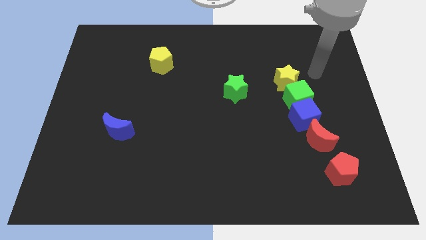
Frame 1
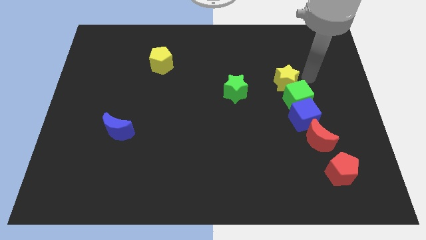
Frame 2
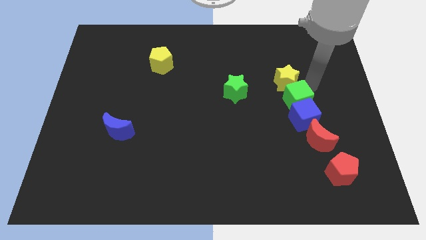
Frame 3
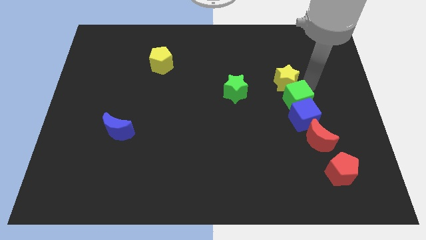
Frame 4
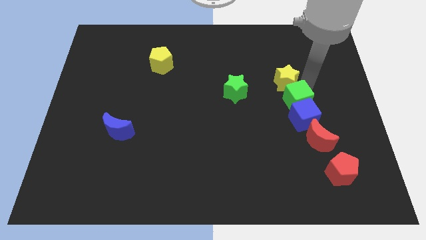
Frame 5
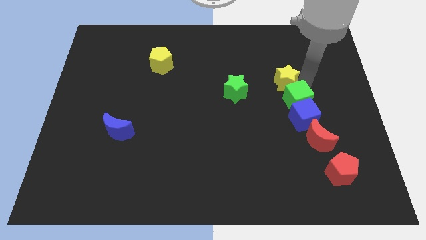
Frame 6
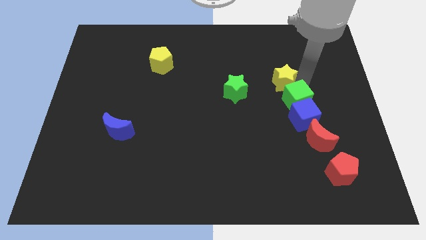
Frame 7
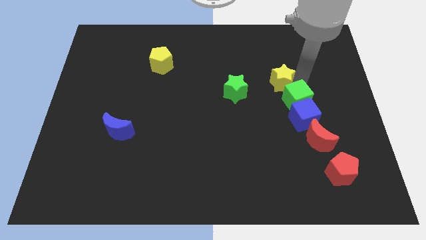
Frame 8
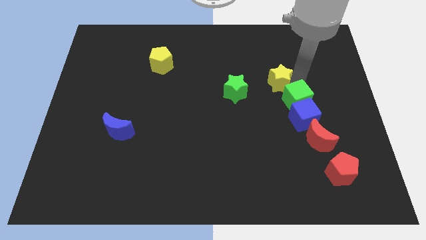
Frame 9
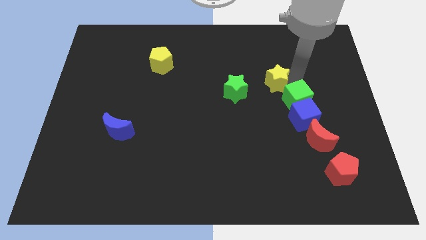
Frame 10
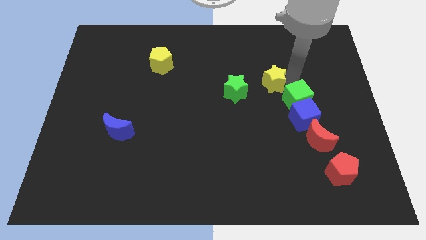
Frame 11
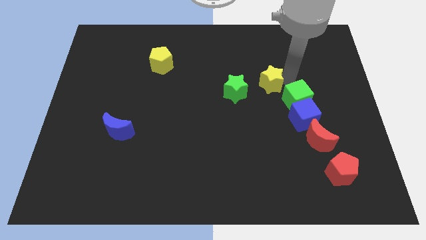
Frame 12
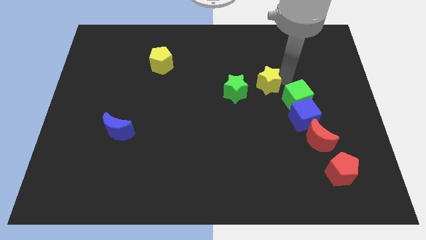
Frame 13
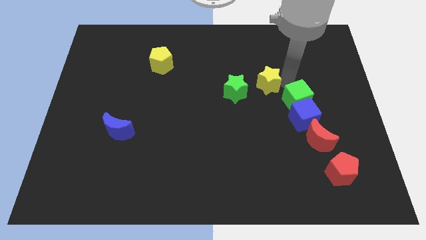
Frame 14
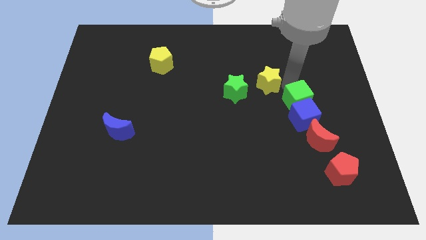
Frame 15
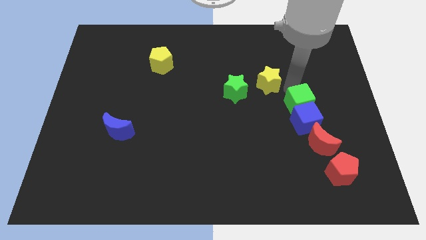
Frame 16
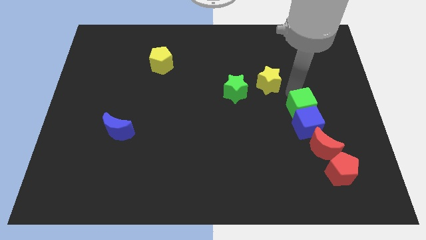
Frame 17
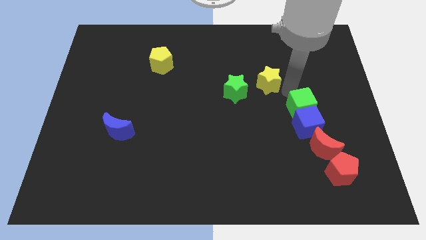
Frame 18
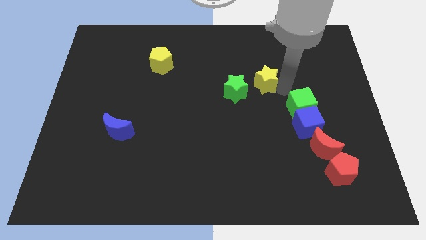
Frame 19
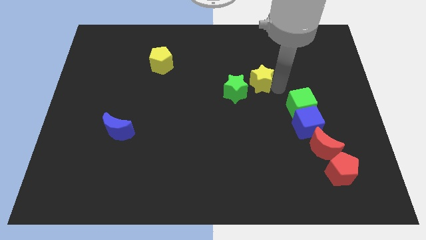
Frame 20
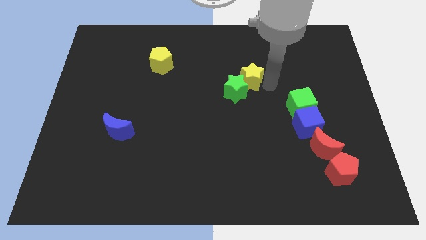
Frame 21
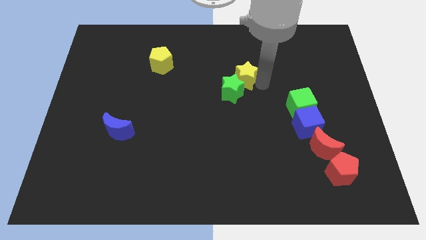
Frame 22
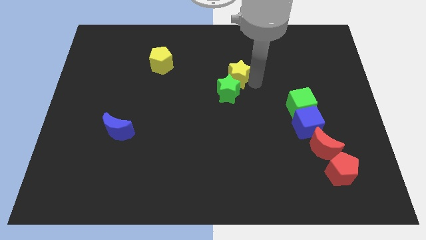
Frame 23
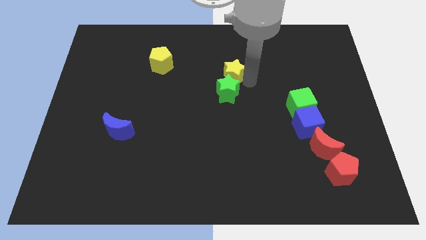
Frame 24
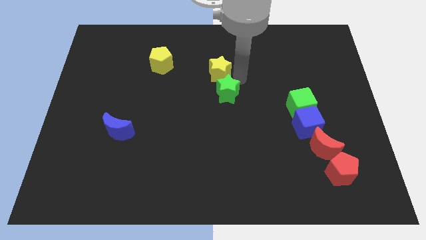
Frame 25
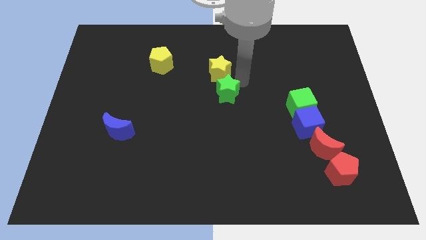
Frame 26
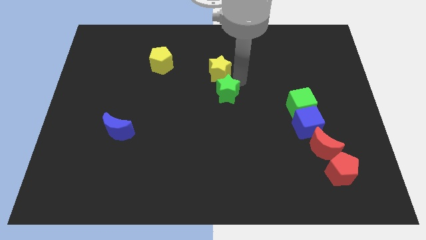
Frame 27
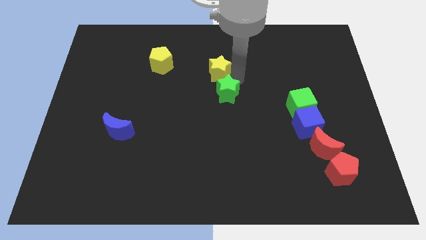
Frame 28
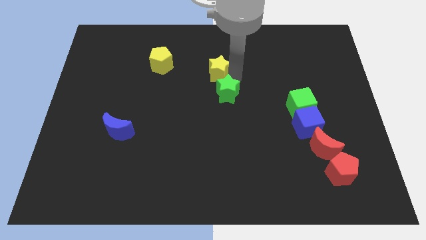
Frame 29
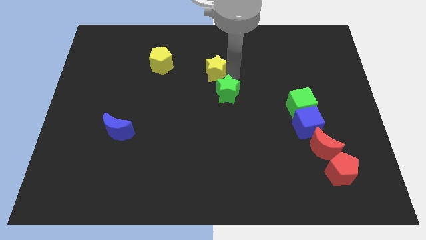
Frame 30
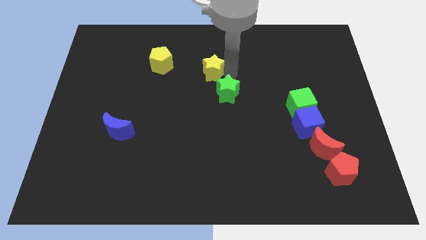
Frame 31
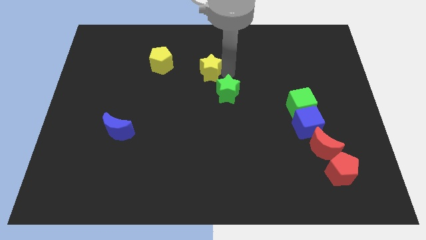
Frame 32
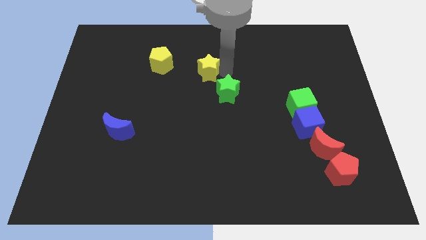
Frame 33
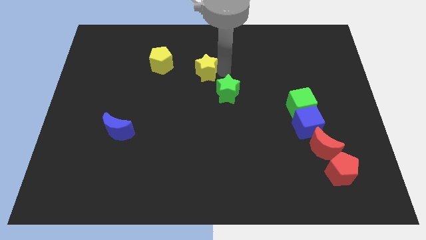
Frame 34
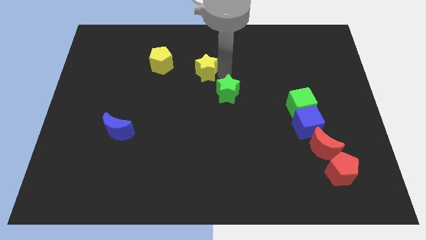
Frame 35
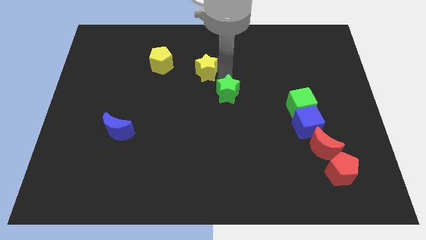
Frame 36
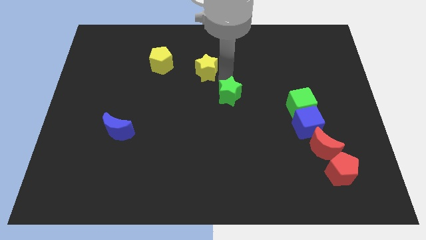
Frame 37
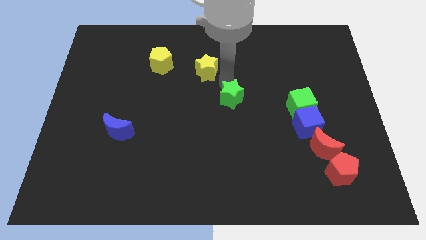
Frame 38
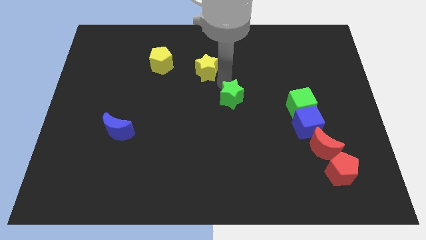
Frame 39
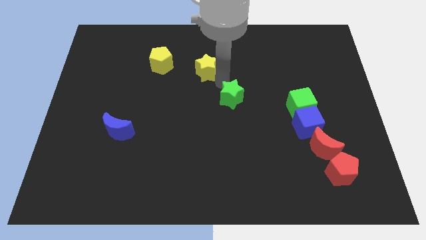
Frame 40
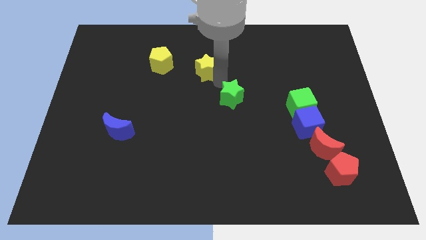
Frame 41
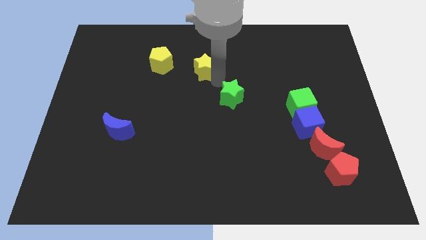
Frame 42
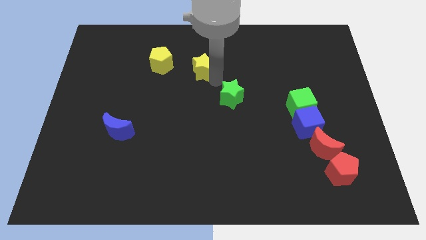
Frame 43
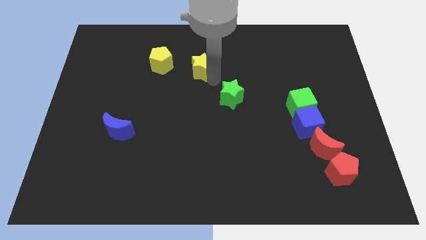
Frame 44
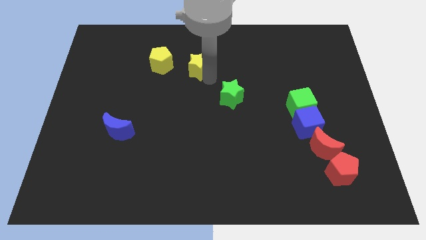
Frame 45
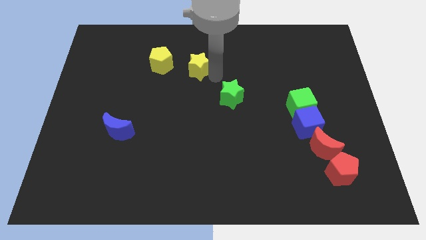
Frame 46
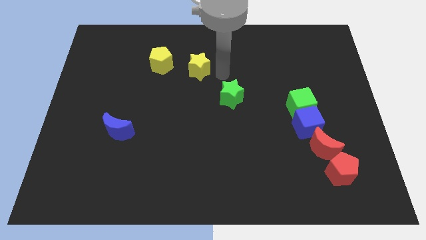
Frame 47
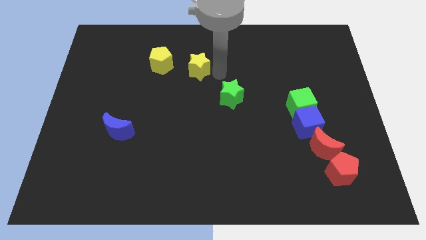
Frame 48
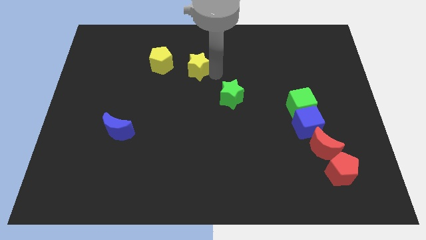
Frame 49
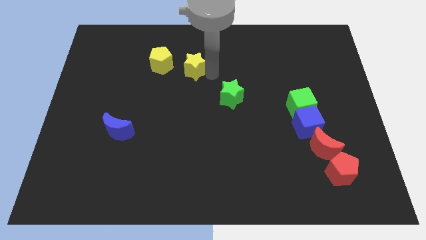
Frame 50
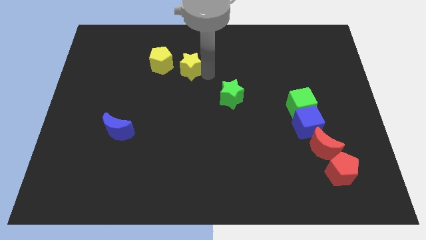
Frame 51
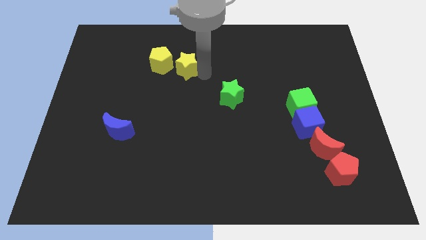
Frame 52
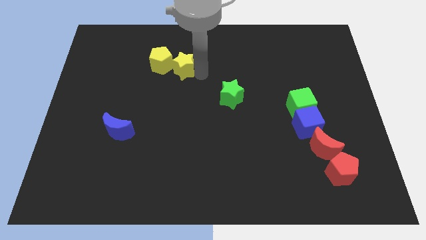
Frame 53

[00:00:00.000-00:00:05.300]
slide the yellow star to the yellow pentagon

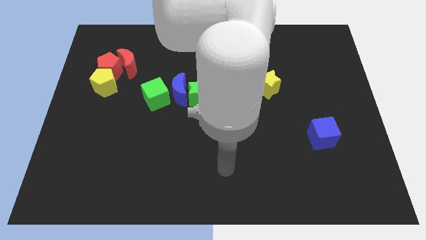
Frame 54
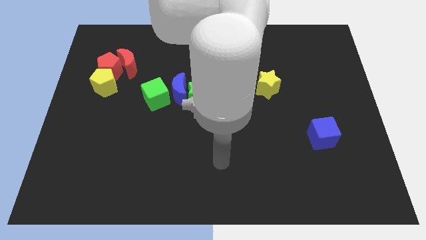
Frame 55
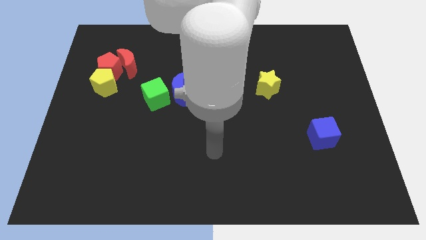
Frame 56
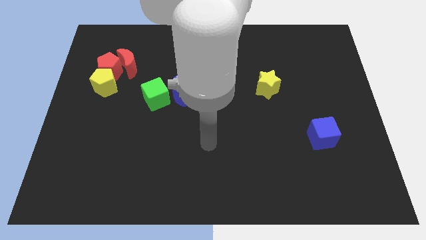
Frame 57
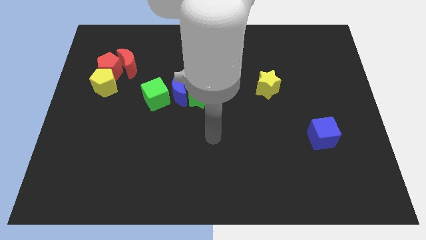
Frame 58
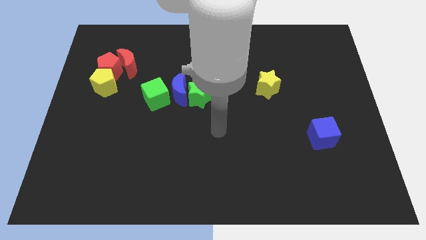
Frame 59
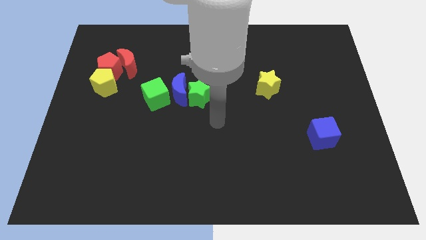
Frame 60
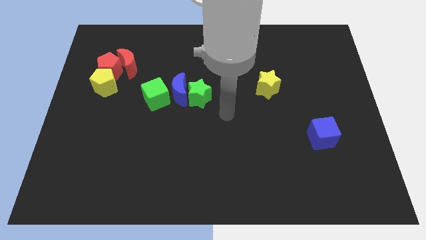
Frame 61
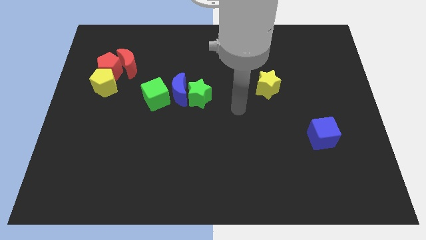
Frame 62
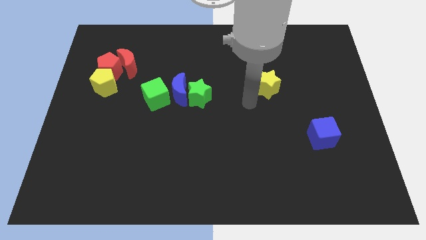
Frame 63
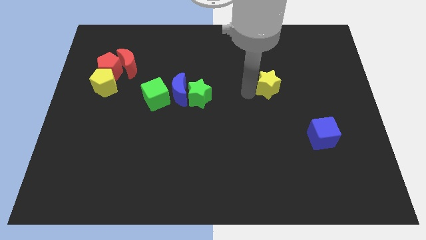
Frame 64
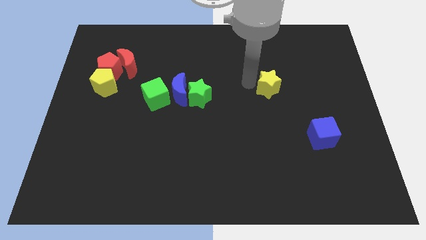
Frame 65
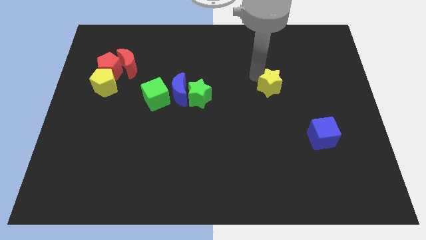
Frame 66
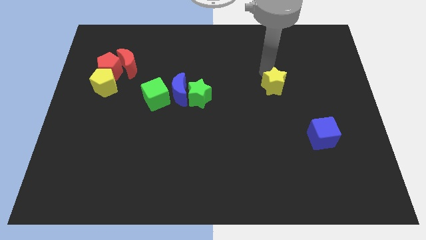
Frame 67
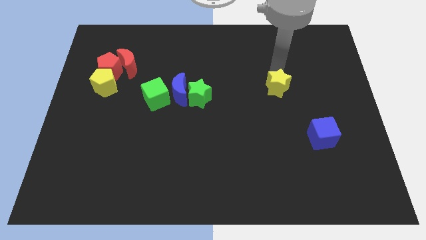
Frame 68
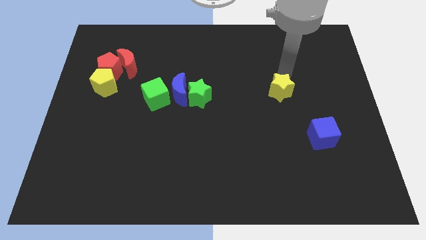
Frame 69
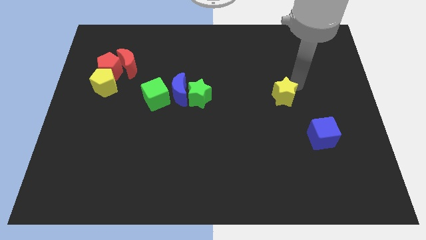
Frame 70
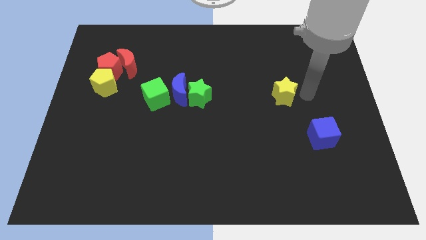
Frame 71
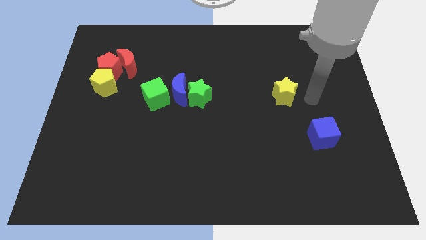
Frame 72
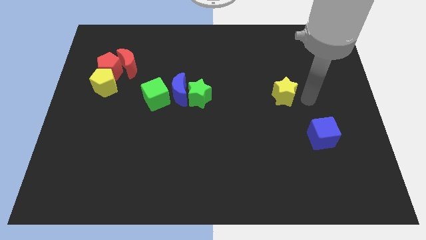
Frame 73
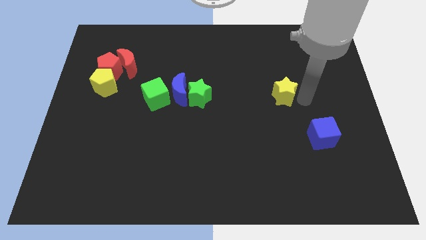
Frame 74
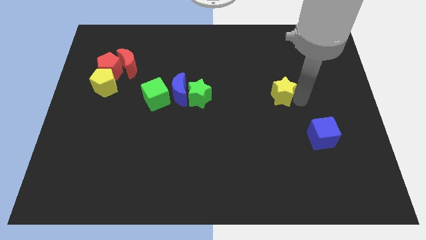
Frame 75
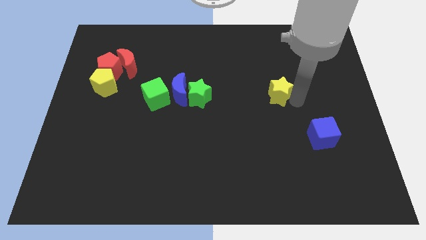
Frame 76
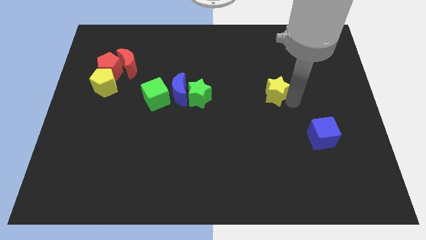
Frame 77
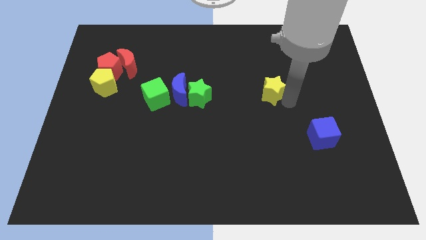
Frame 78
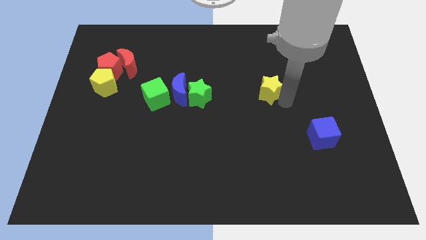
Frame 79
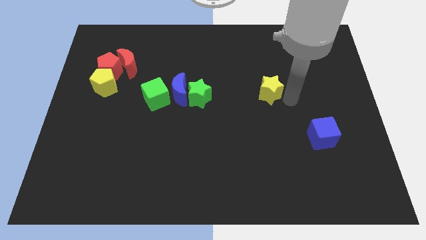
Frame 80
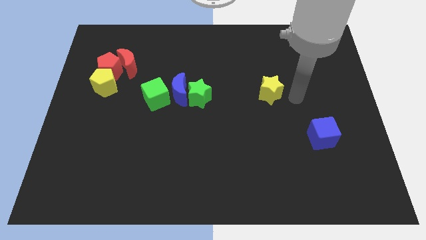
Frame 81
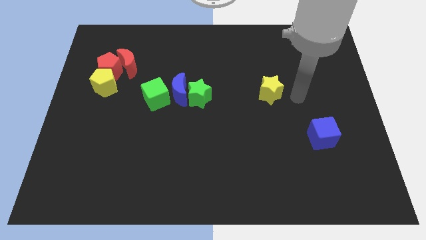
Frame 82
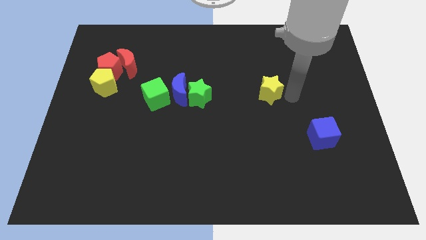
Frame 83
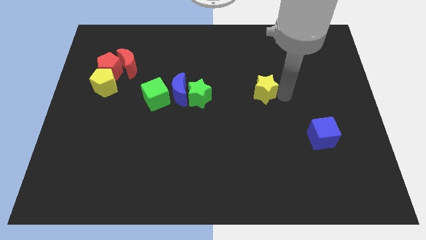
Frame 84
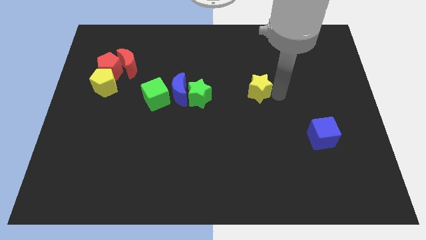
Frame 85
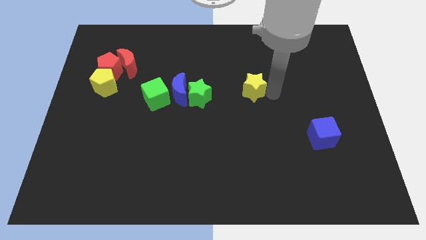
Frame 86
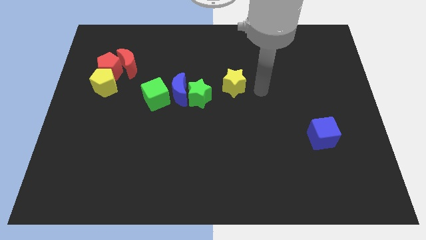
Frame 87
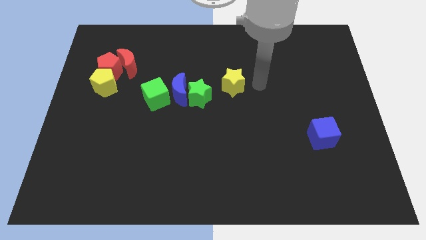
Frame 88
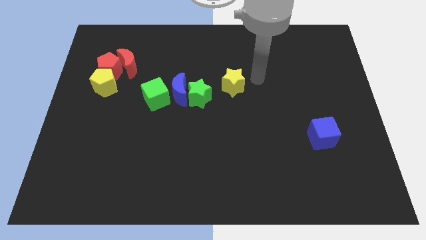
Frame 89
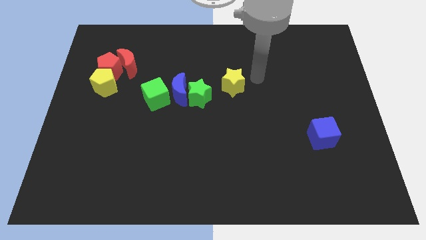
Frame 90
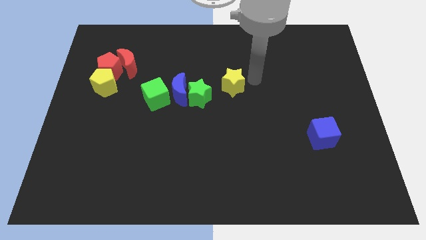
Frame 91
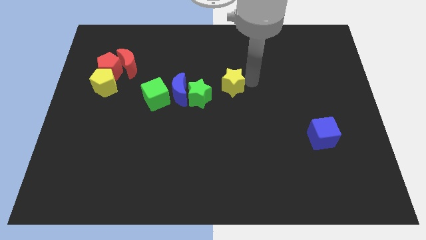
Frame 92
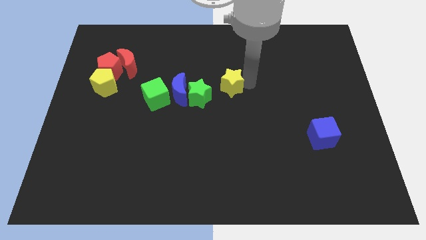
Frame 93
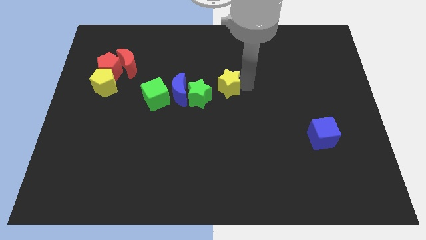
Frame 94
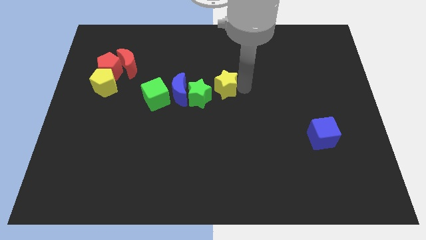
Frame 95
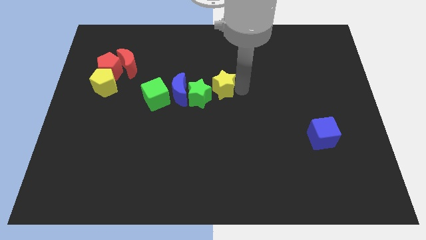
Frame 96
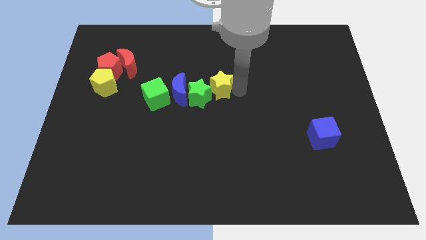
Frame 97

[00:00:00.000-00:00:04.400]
push the yellow star next to the green star
